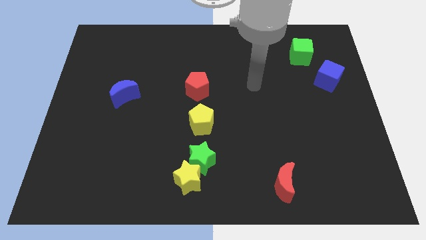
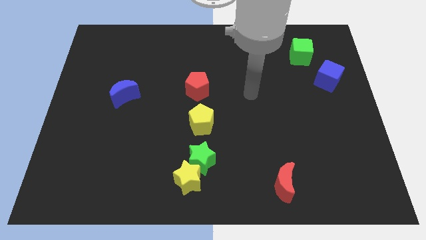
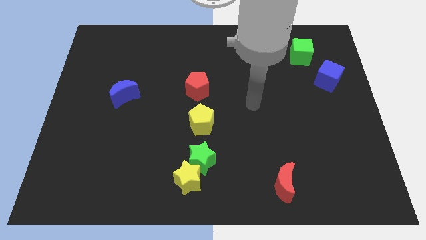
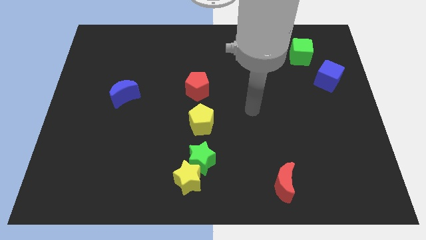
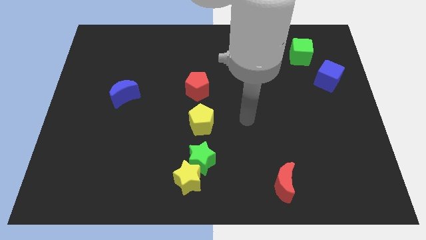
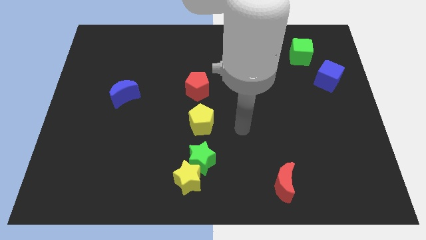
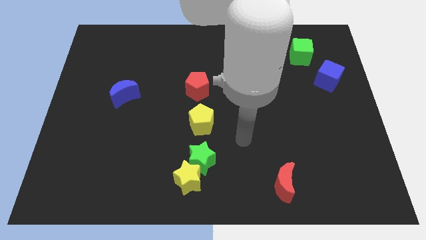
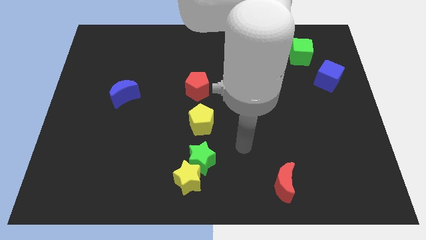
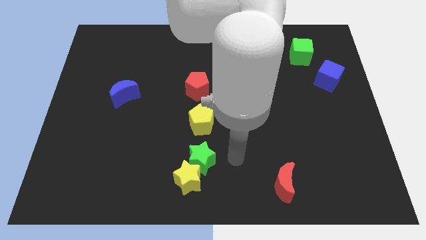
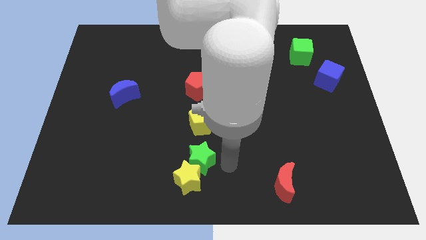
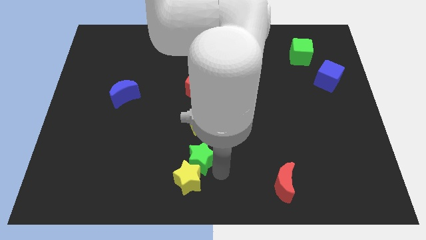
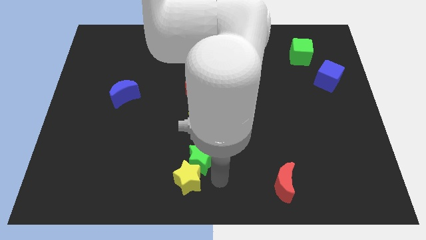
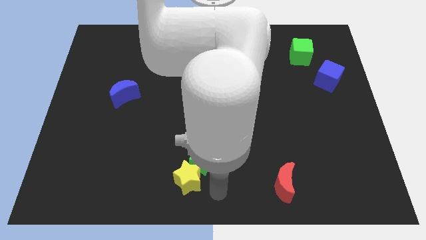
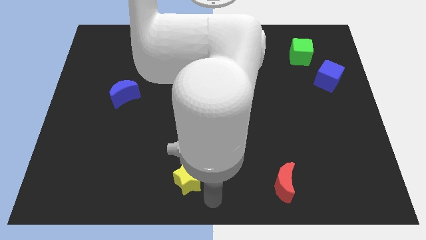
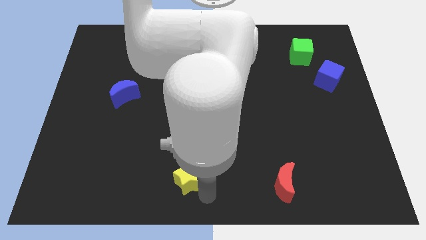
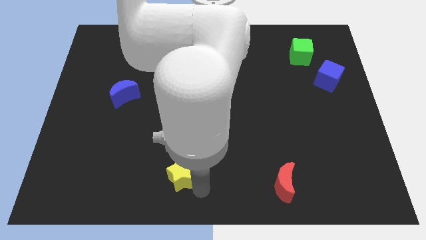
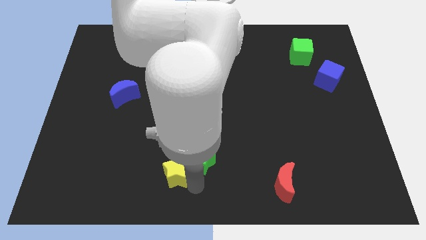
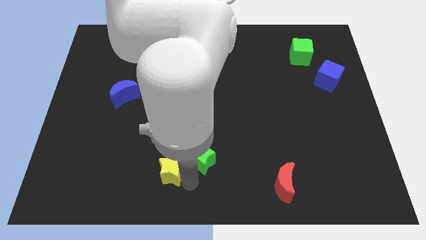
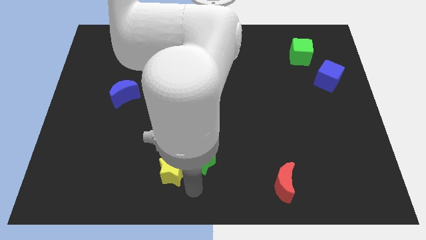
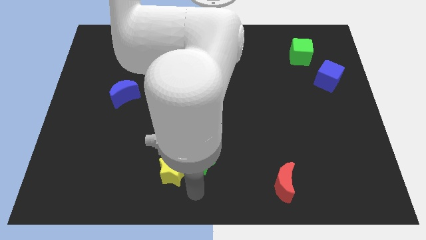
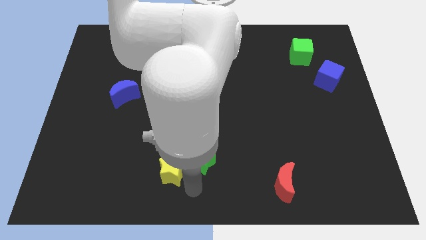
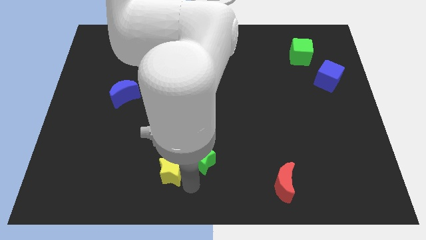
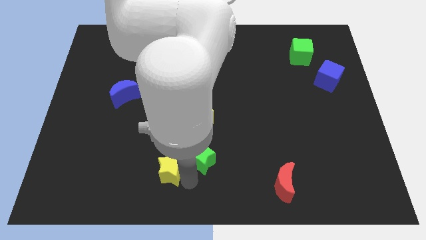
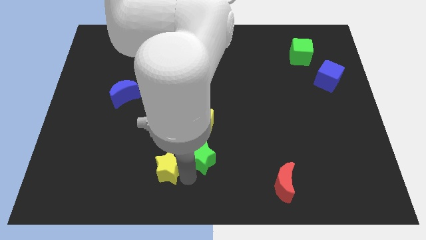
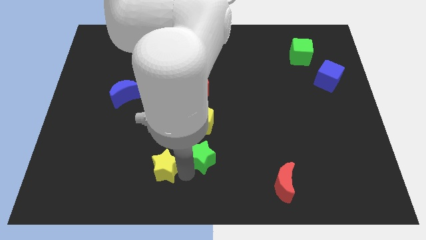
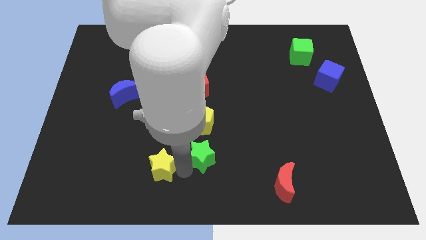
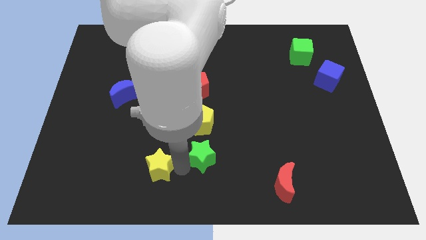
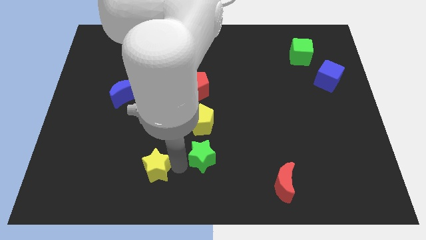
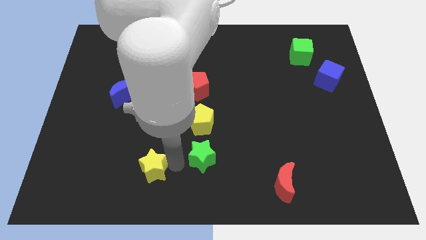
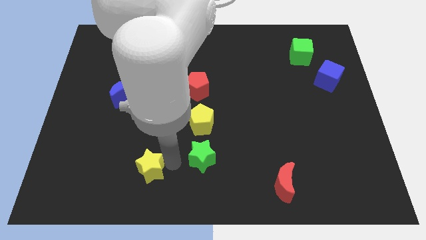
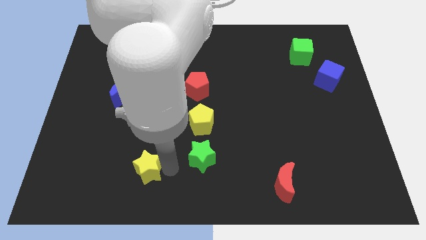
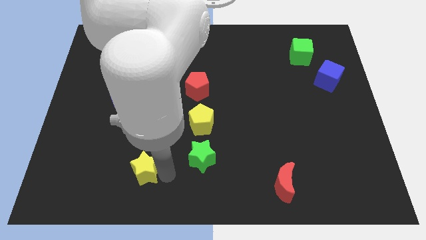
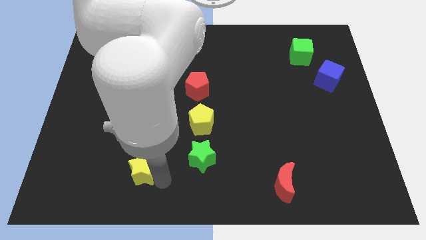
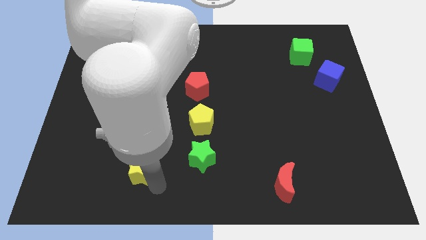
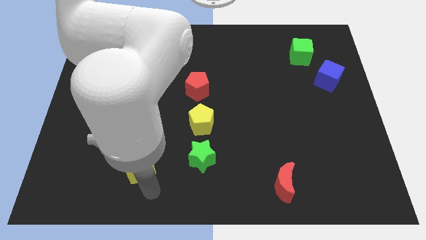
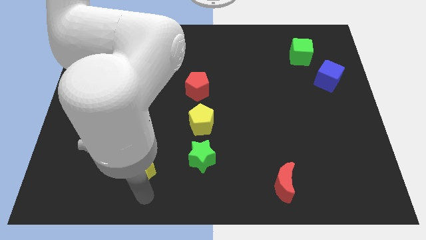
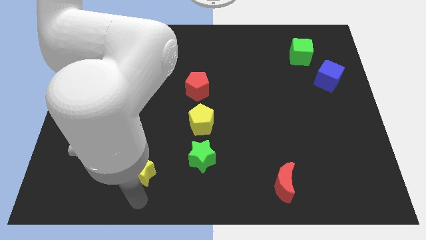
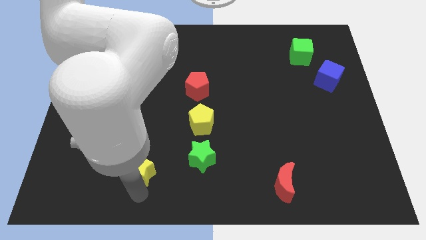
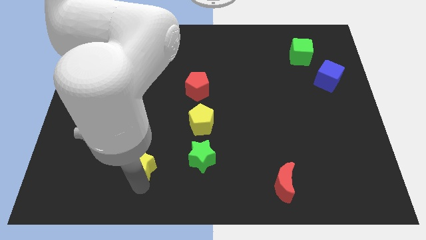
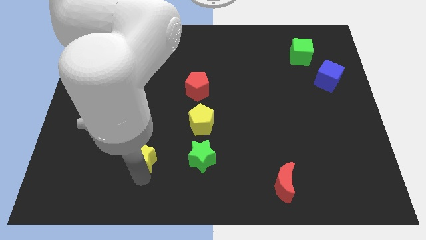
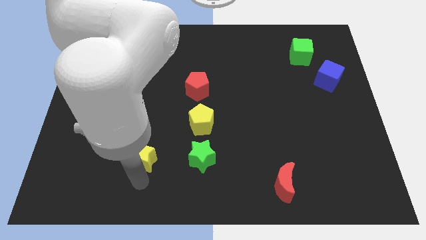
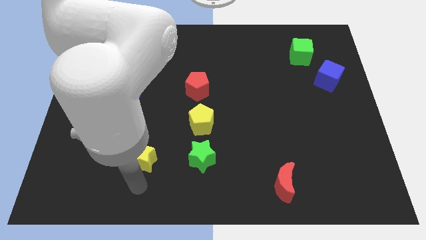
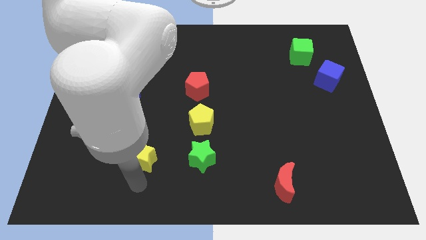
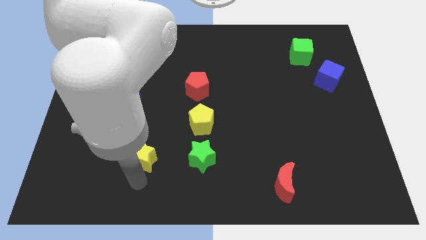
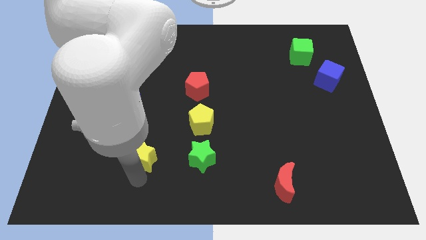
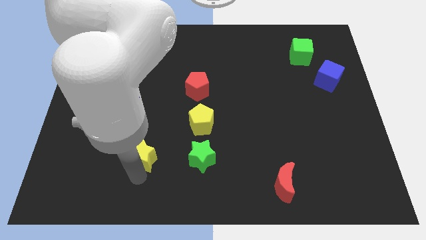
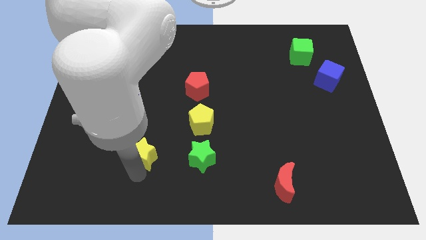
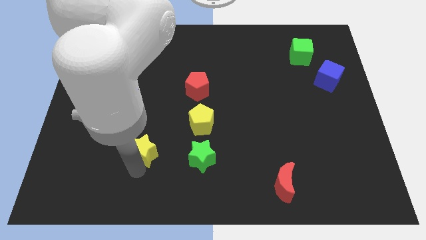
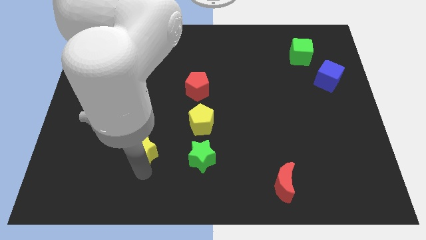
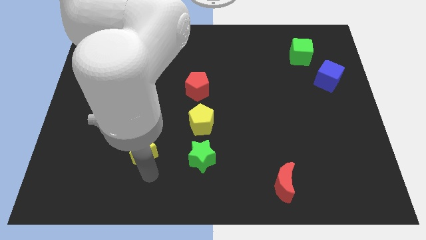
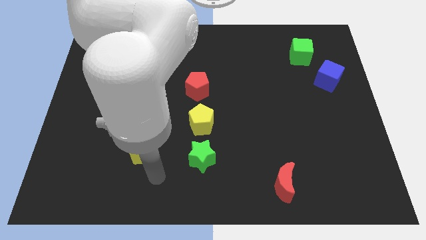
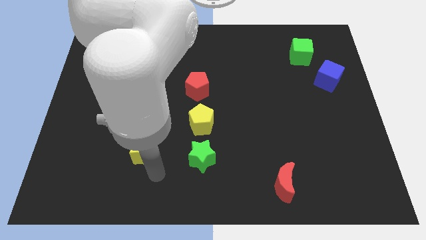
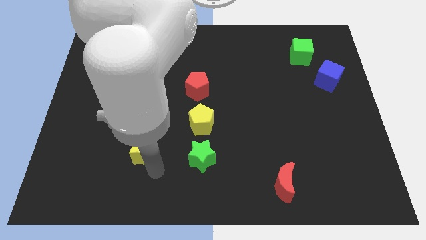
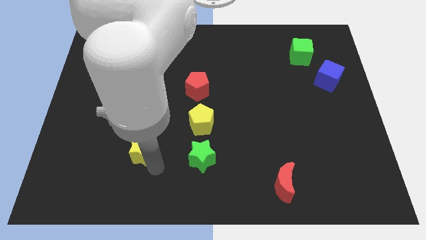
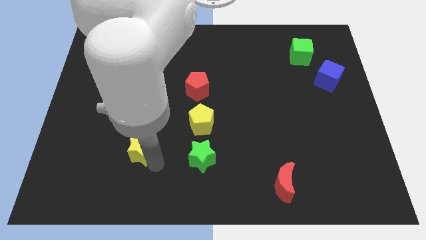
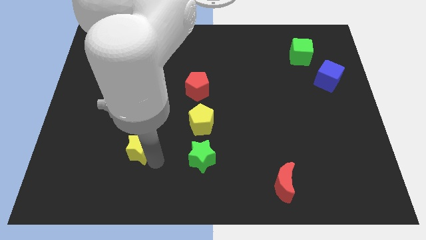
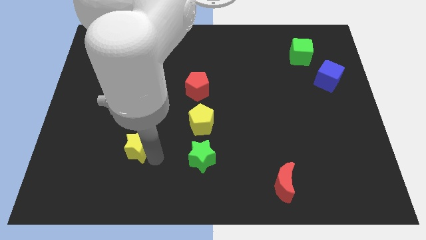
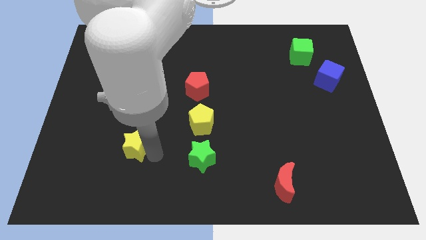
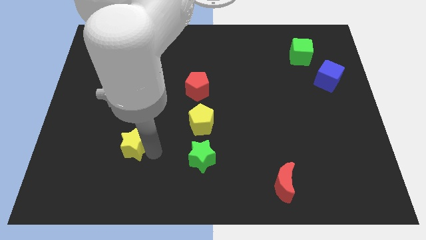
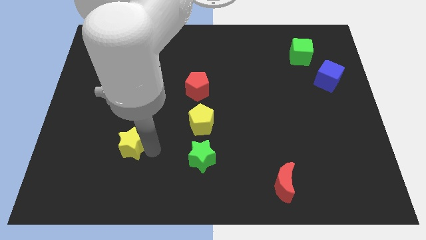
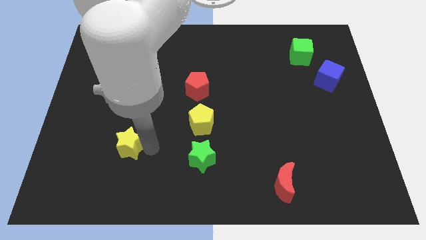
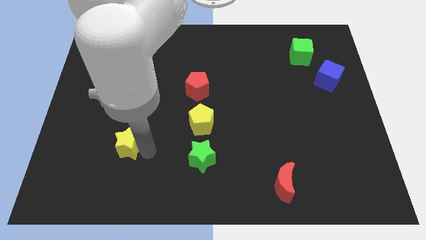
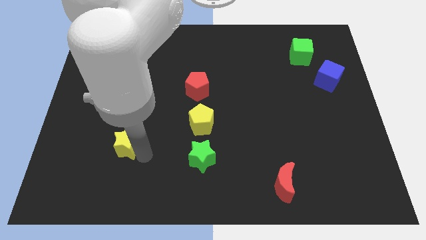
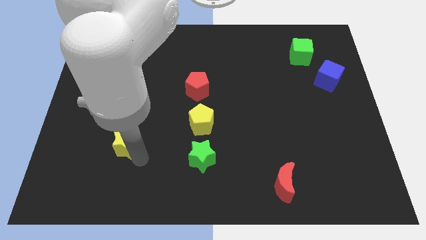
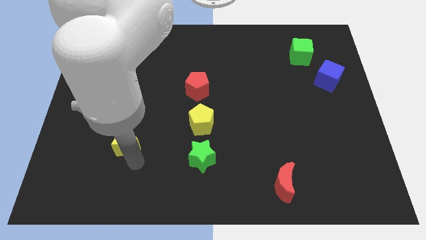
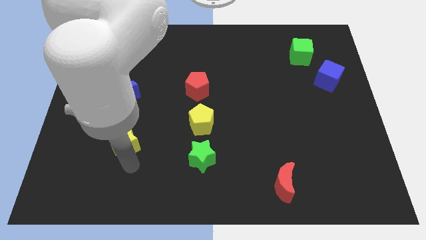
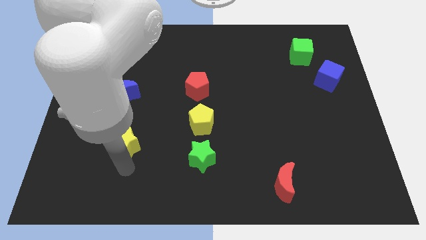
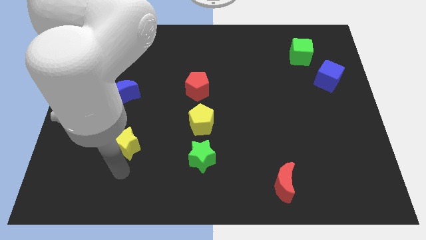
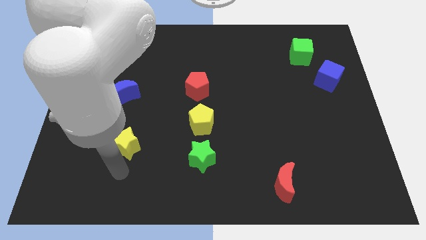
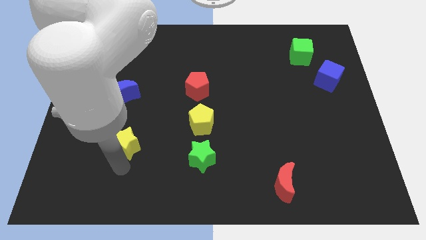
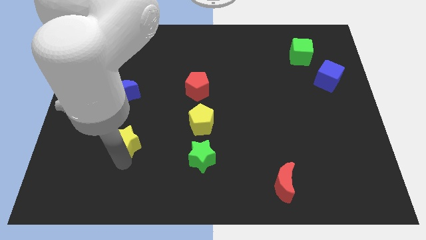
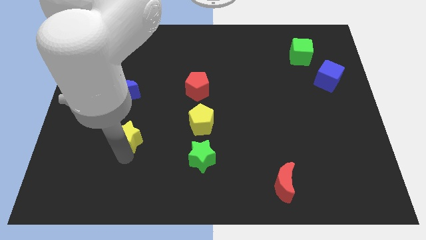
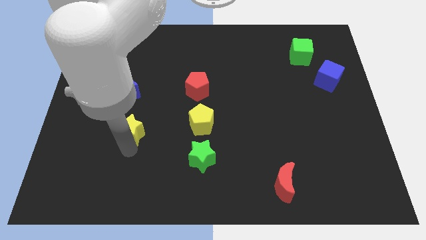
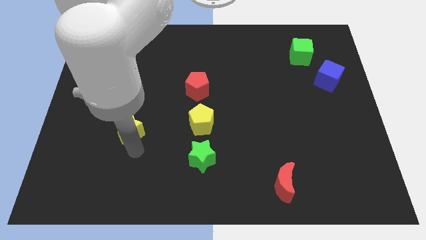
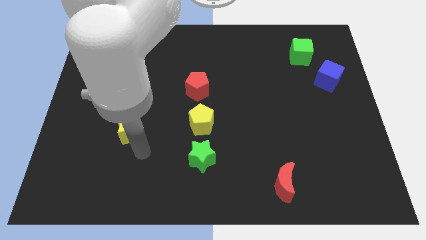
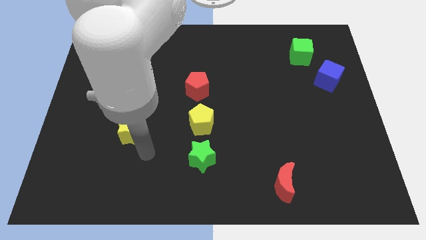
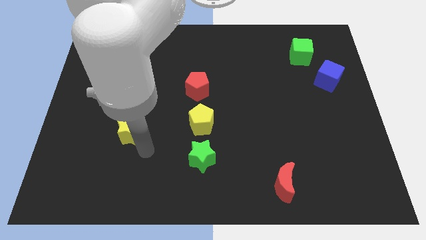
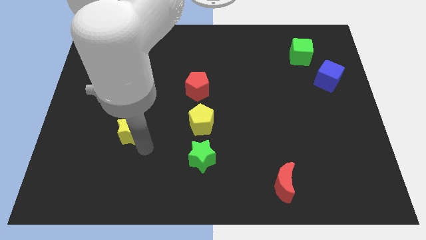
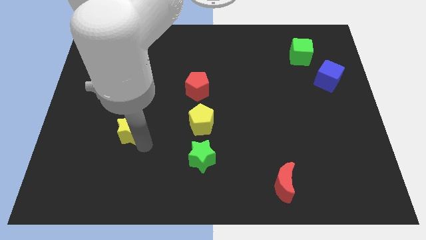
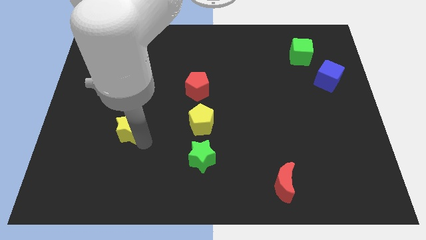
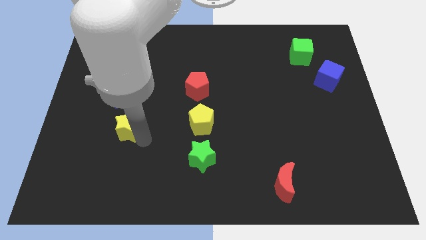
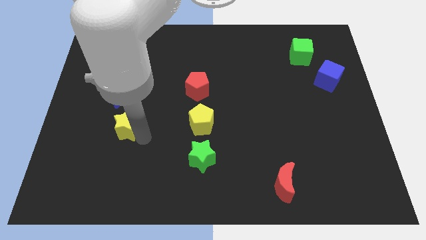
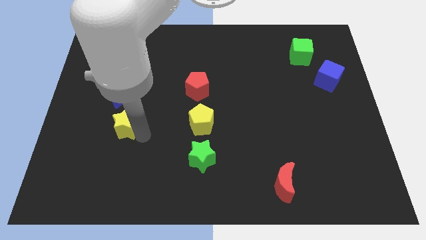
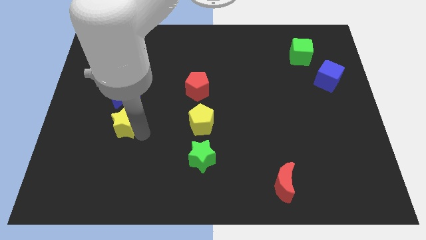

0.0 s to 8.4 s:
move the yellow star up and left diagonally
